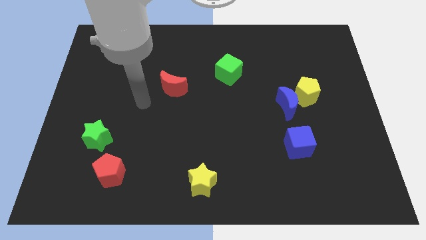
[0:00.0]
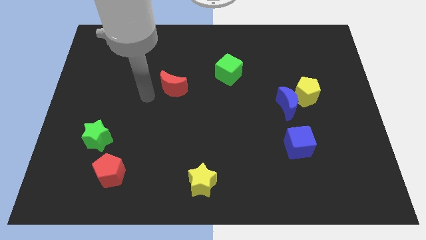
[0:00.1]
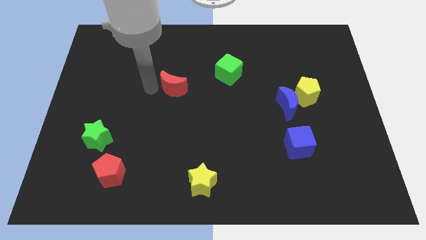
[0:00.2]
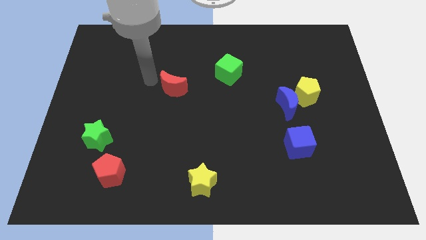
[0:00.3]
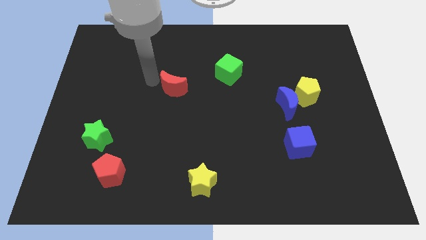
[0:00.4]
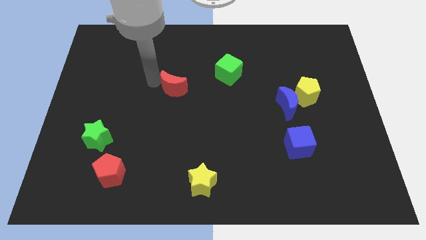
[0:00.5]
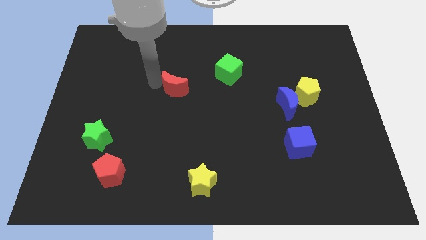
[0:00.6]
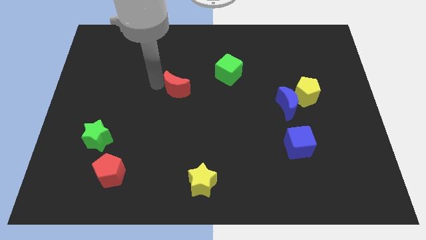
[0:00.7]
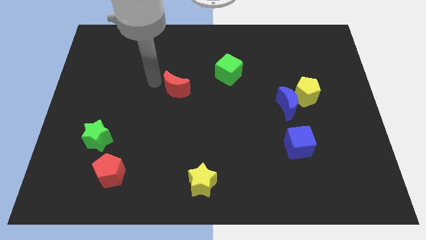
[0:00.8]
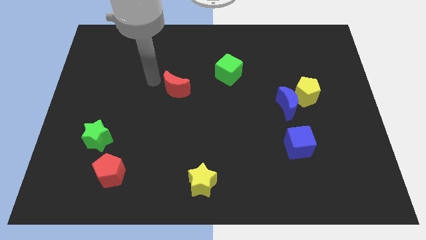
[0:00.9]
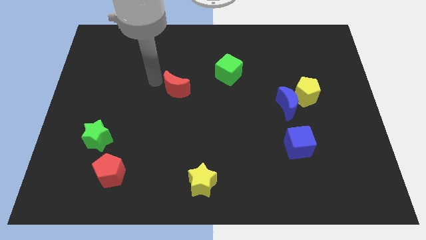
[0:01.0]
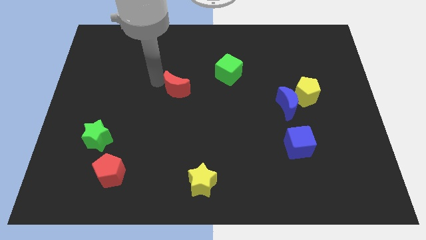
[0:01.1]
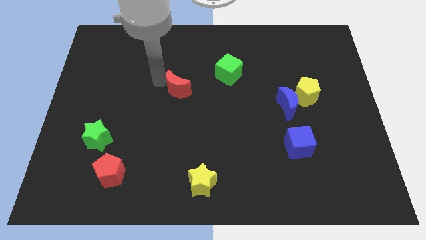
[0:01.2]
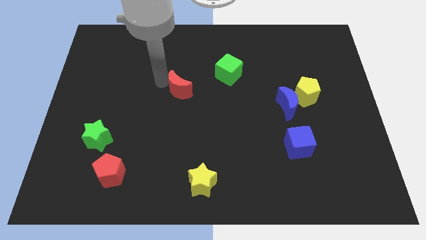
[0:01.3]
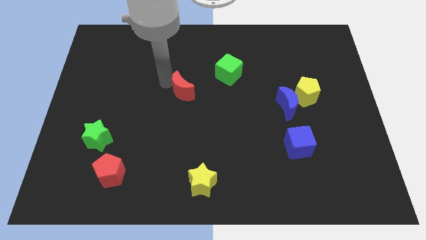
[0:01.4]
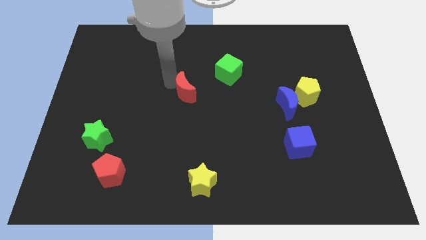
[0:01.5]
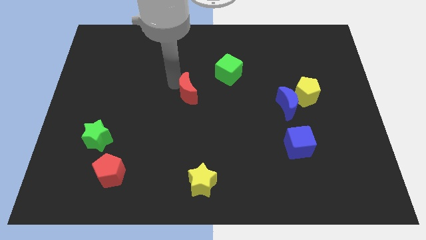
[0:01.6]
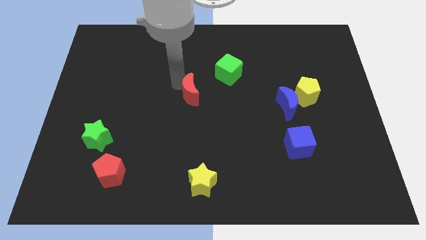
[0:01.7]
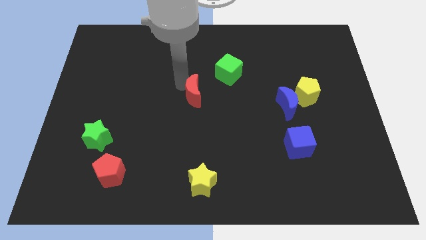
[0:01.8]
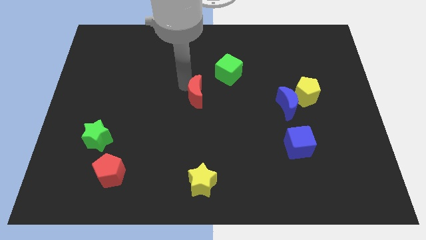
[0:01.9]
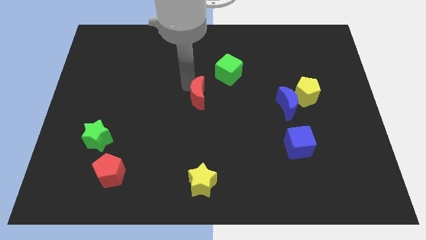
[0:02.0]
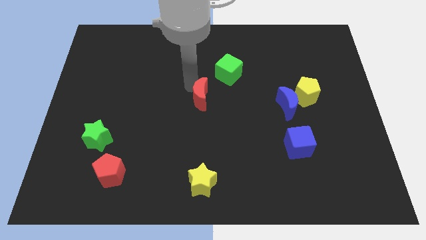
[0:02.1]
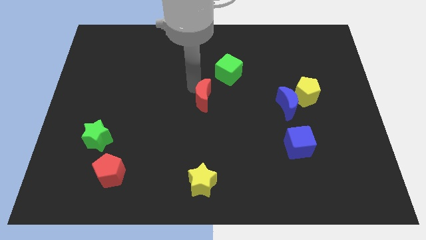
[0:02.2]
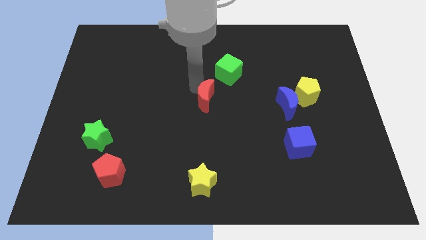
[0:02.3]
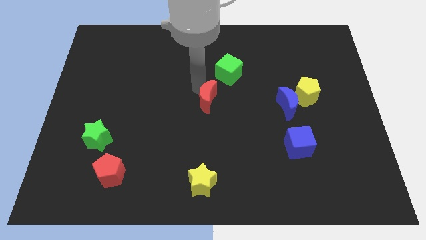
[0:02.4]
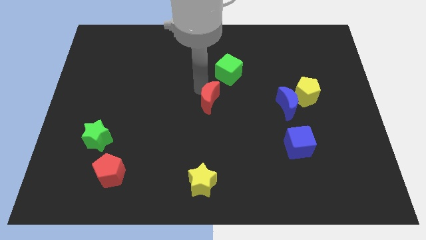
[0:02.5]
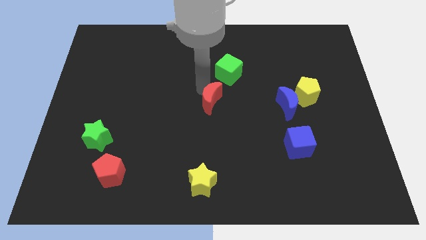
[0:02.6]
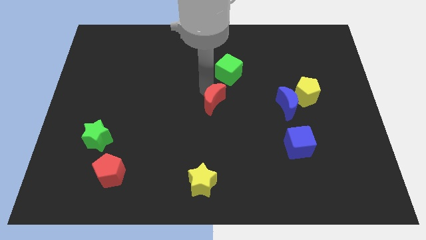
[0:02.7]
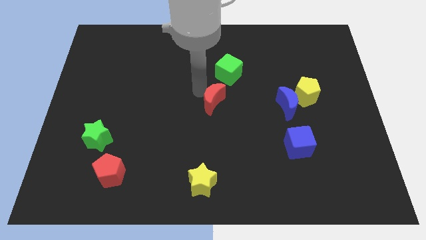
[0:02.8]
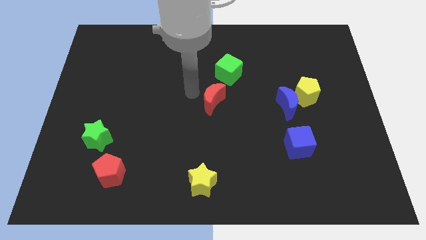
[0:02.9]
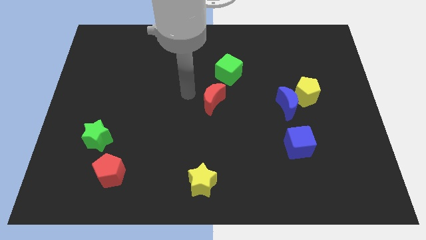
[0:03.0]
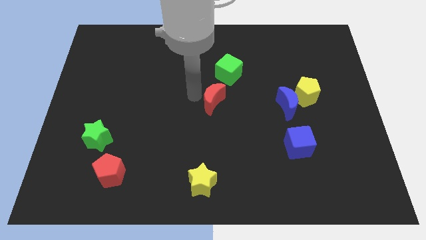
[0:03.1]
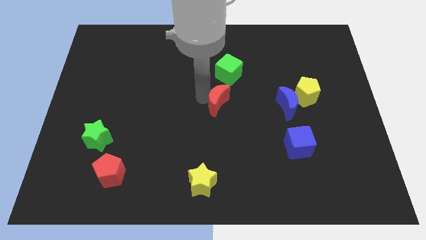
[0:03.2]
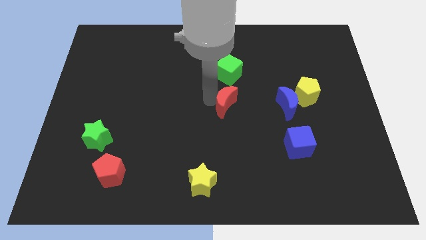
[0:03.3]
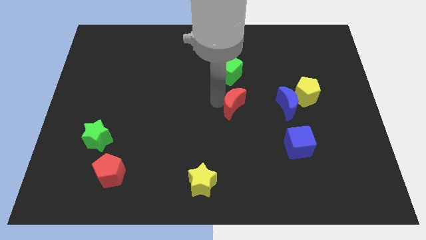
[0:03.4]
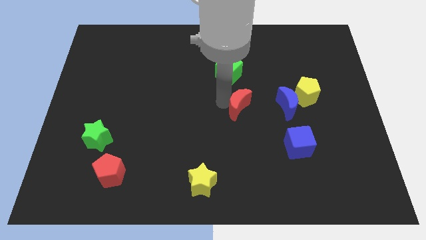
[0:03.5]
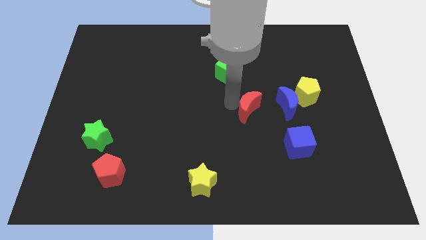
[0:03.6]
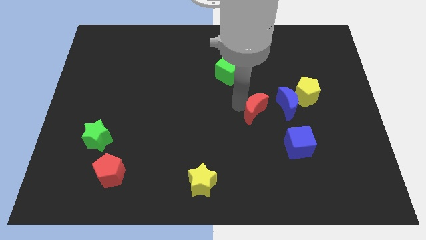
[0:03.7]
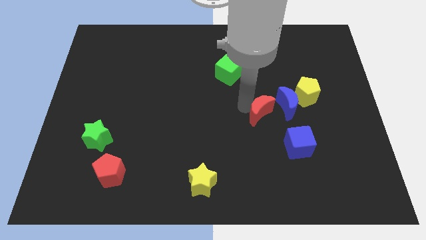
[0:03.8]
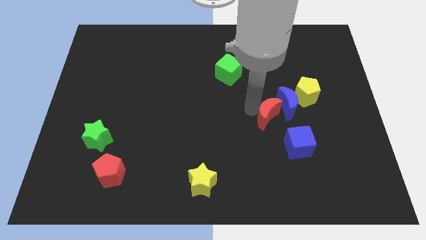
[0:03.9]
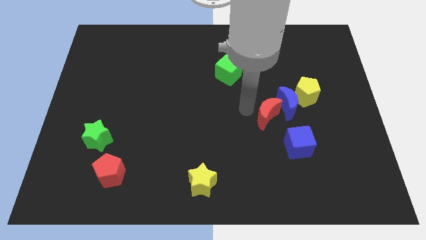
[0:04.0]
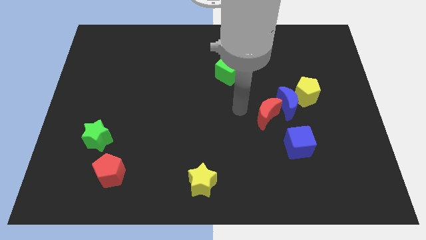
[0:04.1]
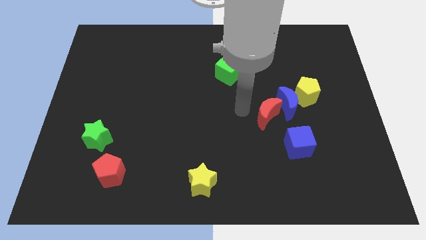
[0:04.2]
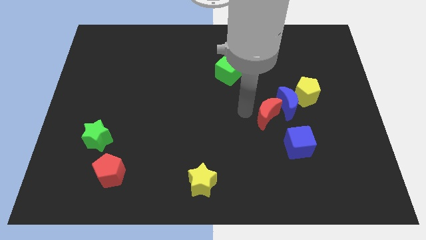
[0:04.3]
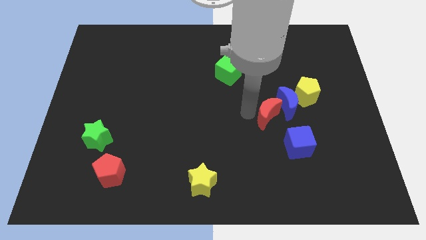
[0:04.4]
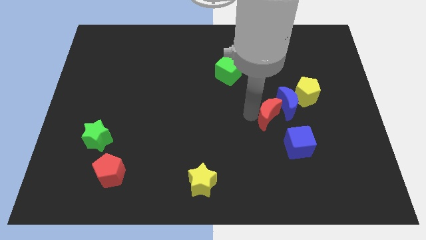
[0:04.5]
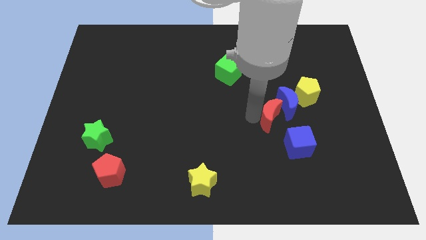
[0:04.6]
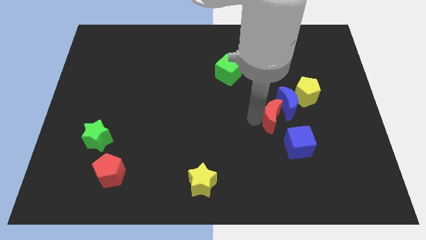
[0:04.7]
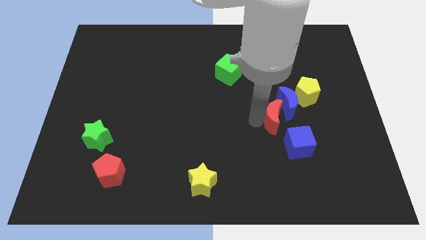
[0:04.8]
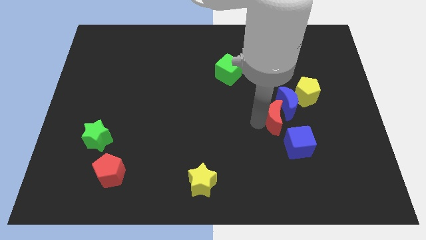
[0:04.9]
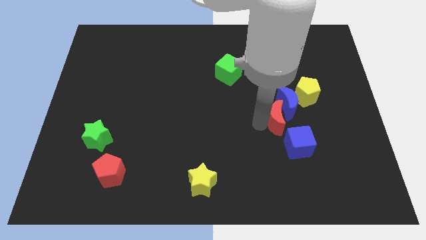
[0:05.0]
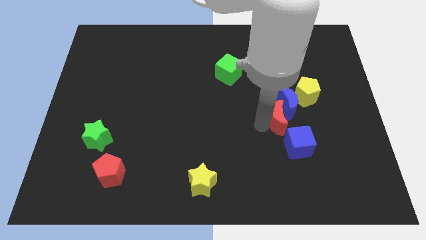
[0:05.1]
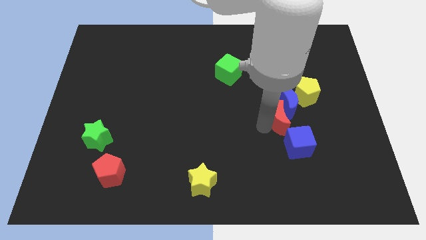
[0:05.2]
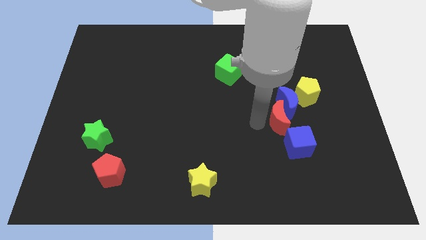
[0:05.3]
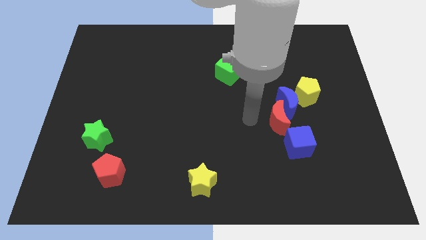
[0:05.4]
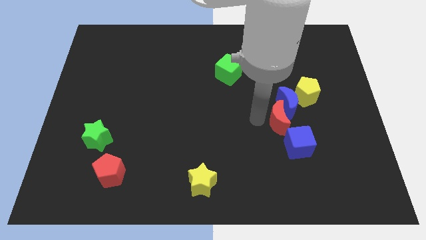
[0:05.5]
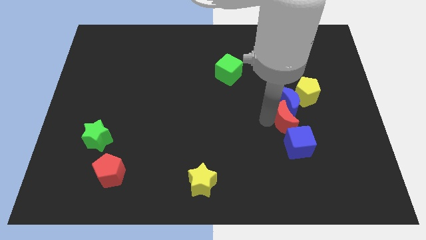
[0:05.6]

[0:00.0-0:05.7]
push the red moon to the bottom right side of the blue moon

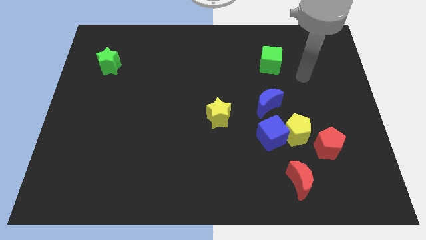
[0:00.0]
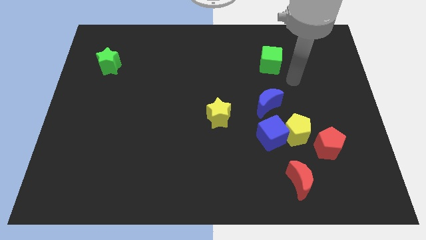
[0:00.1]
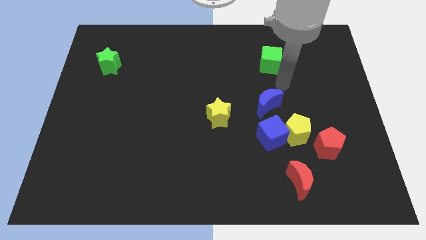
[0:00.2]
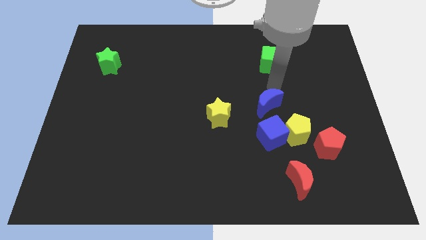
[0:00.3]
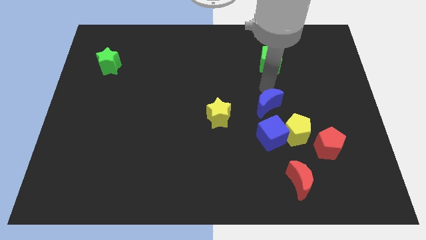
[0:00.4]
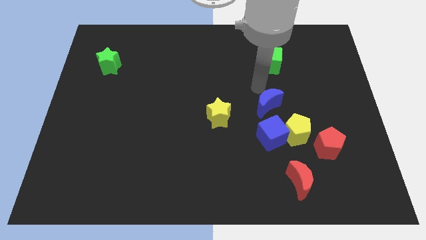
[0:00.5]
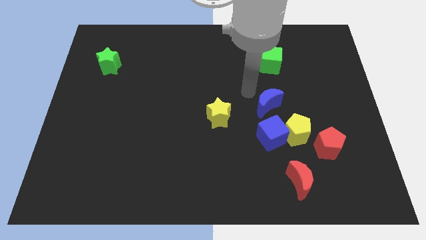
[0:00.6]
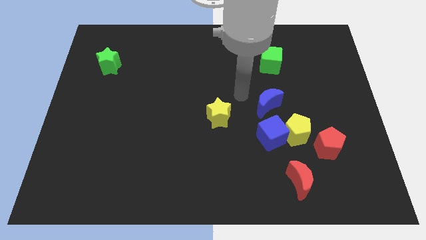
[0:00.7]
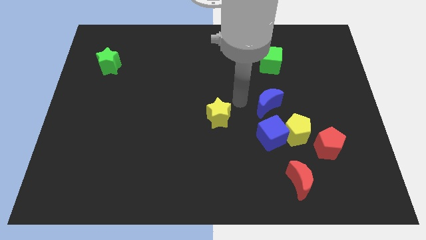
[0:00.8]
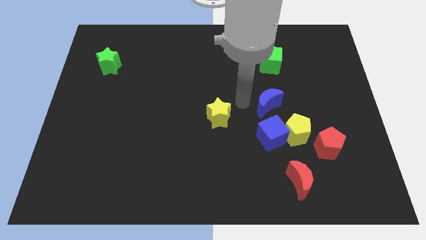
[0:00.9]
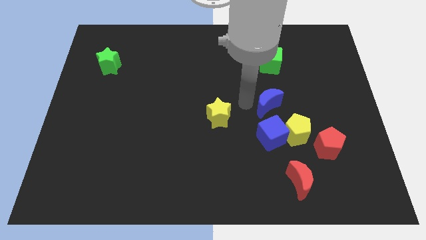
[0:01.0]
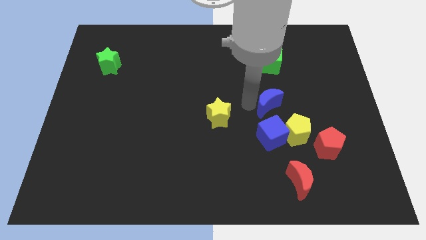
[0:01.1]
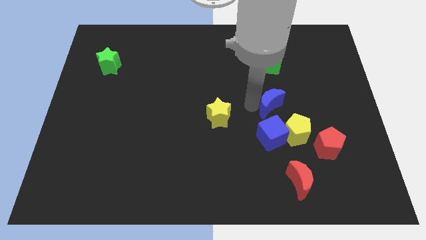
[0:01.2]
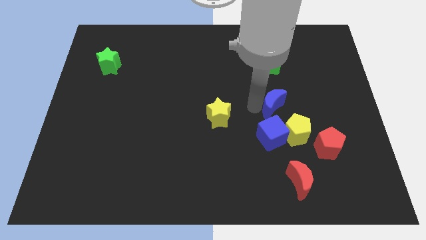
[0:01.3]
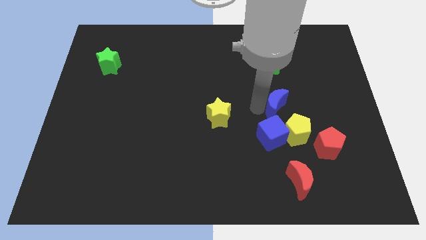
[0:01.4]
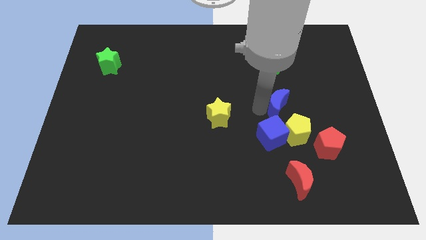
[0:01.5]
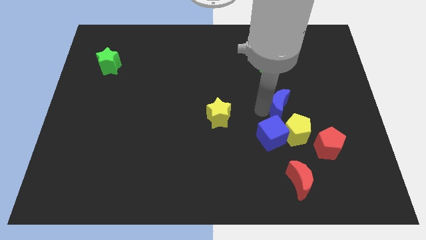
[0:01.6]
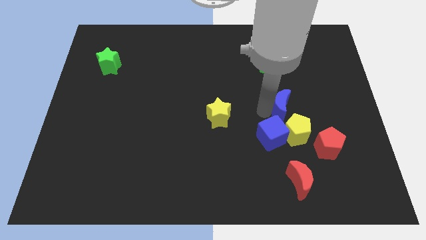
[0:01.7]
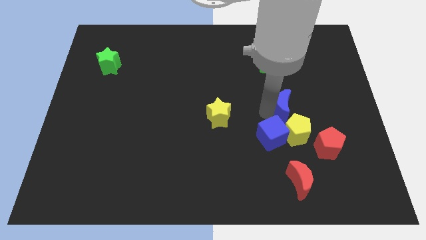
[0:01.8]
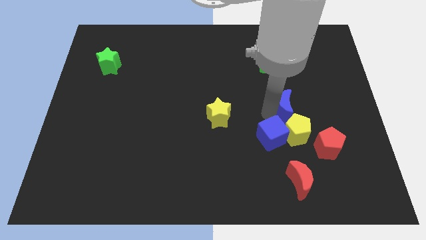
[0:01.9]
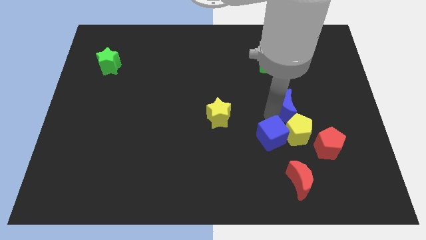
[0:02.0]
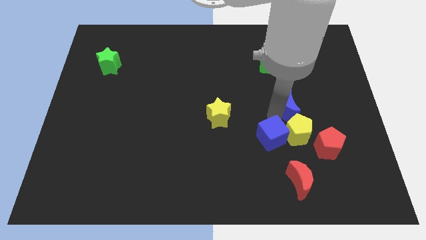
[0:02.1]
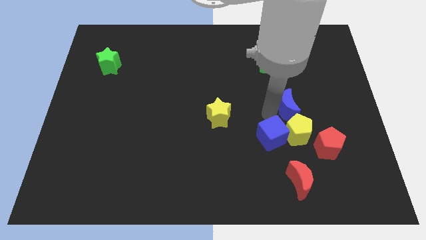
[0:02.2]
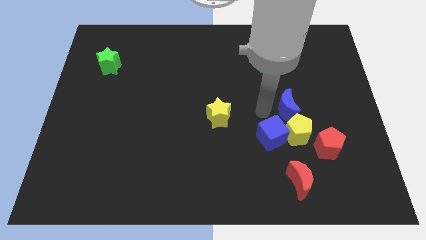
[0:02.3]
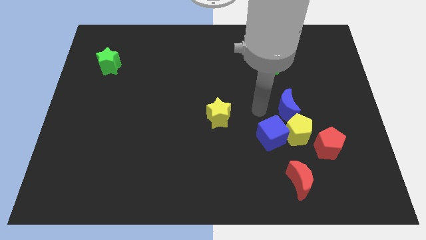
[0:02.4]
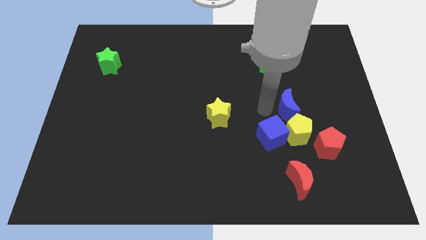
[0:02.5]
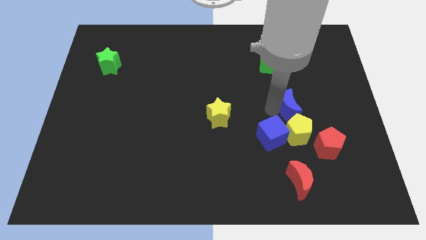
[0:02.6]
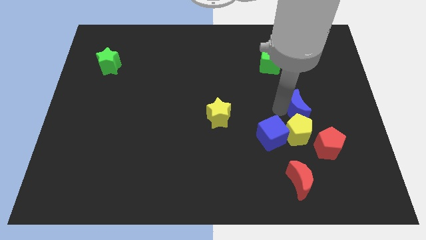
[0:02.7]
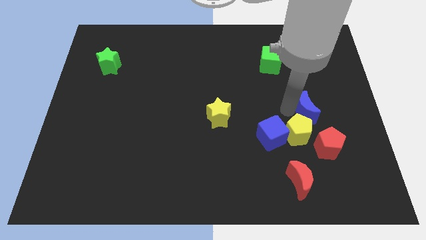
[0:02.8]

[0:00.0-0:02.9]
put the blue moon to the top side of the red pentagon

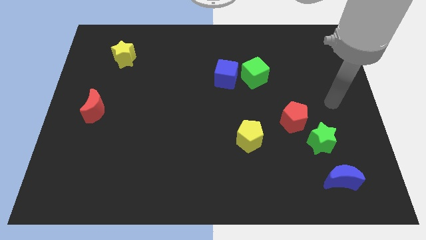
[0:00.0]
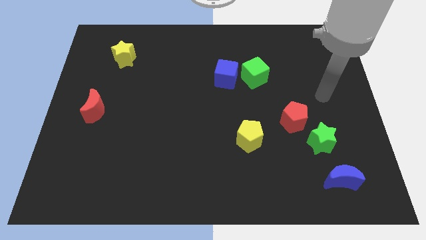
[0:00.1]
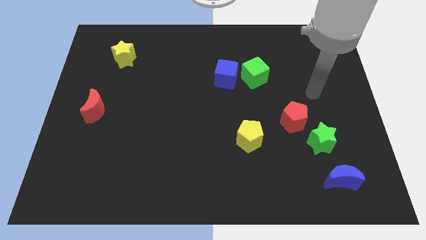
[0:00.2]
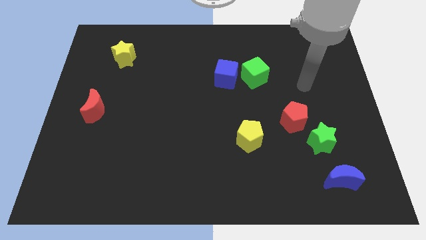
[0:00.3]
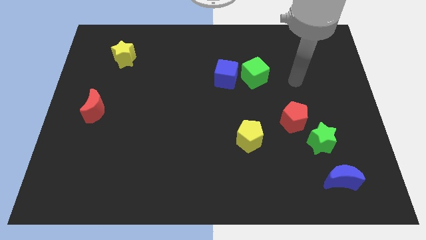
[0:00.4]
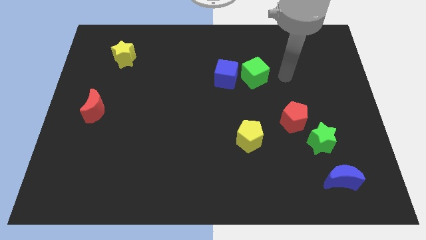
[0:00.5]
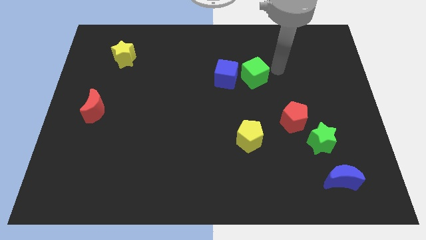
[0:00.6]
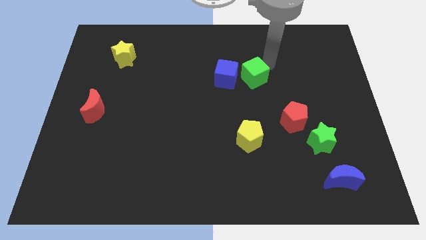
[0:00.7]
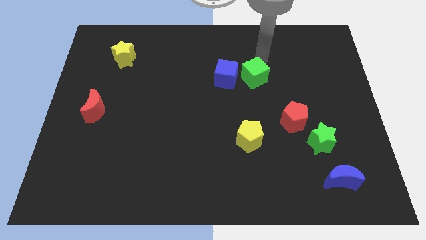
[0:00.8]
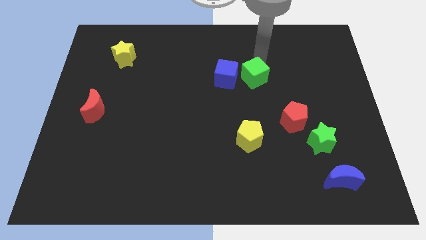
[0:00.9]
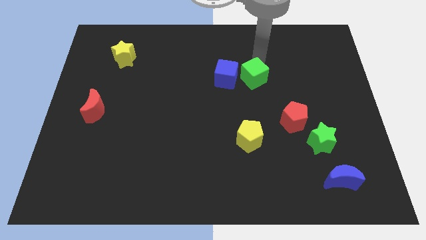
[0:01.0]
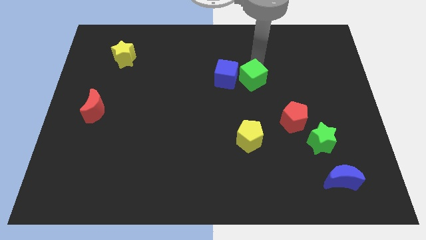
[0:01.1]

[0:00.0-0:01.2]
move the green cube to the bottom right side of the blue cube
